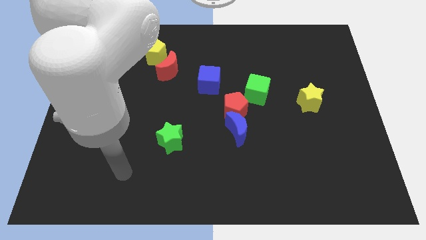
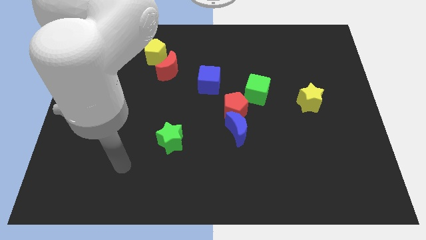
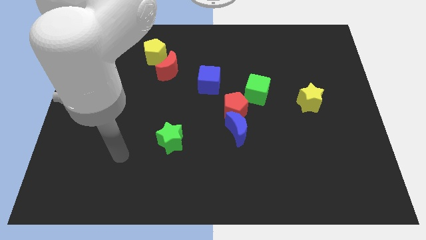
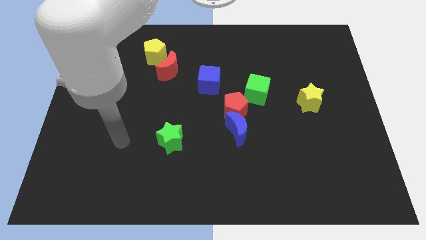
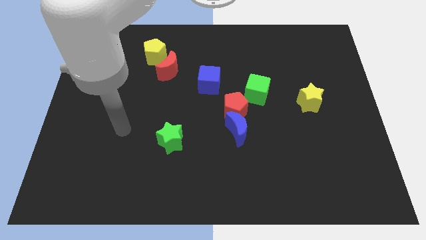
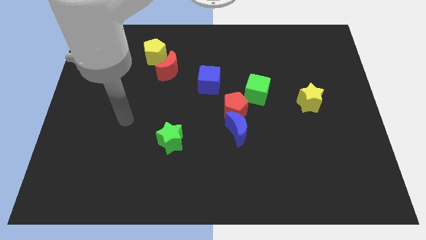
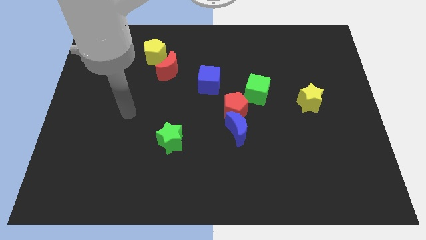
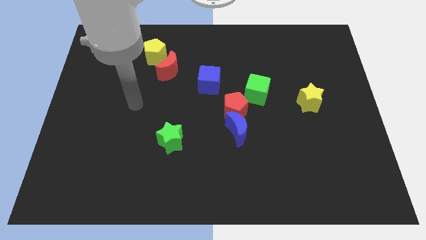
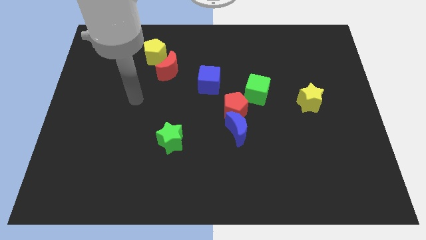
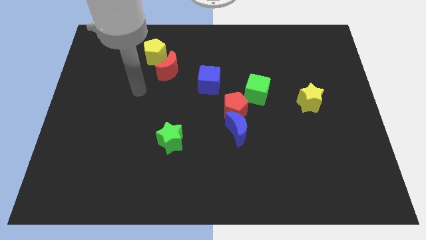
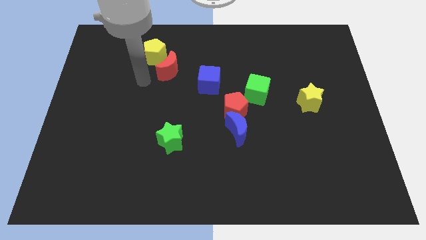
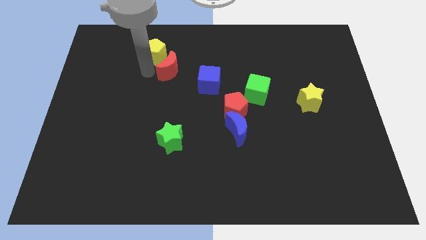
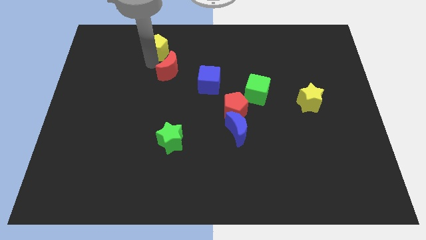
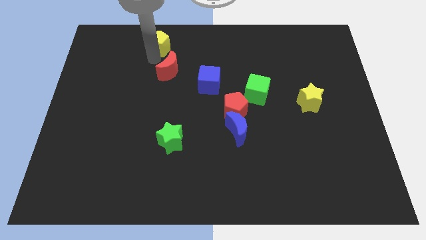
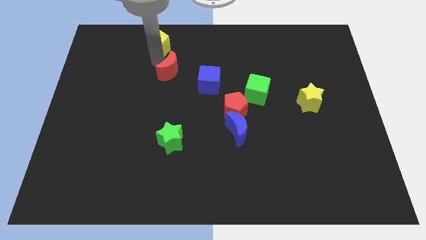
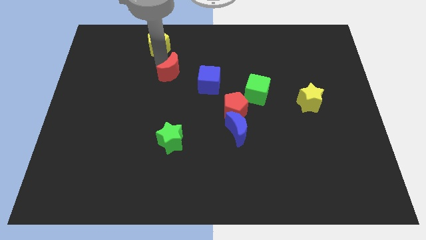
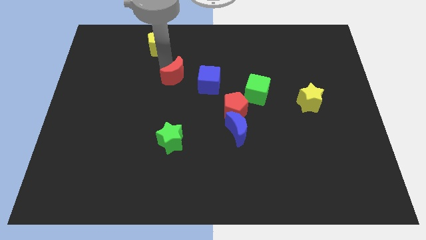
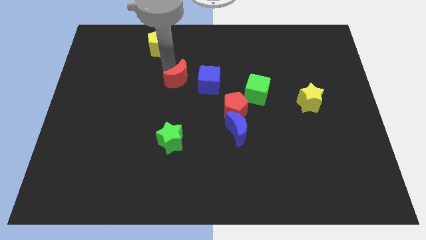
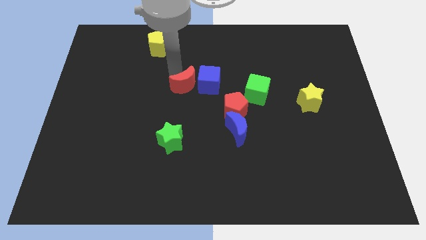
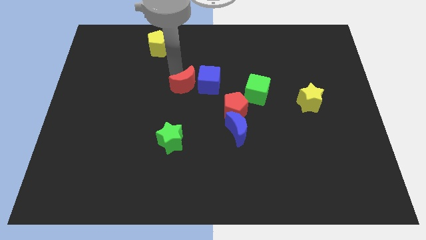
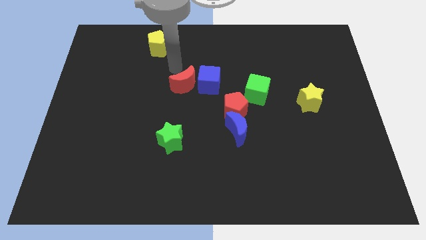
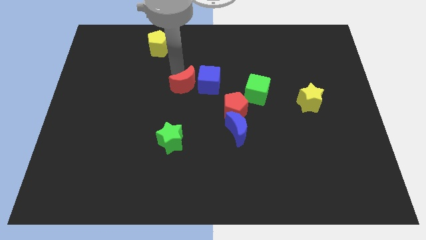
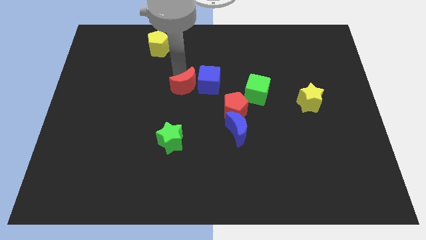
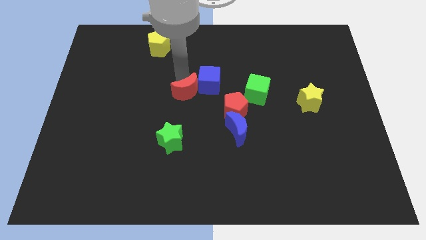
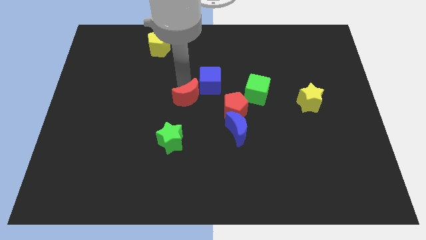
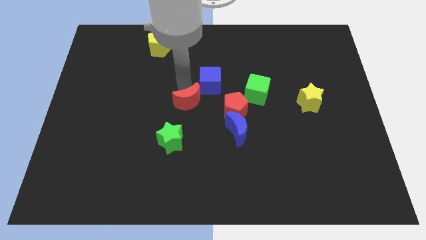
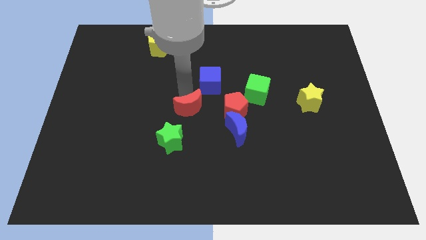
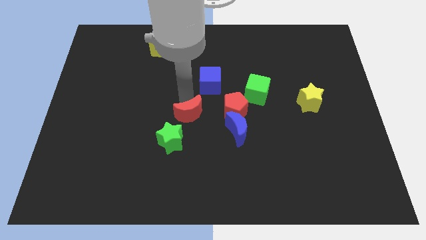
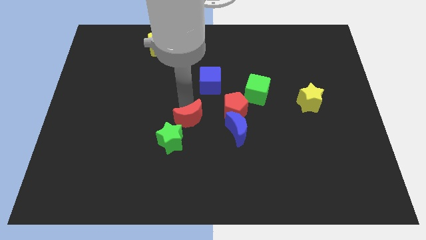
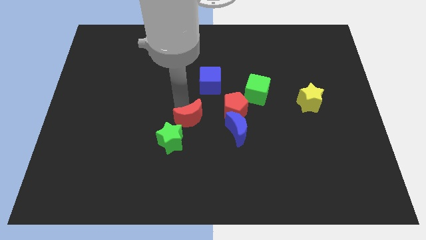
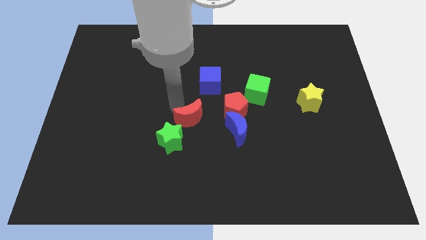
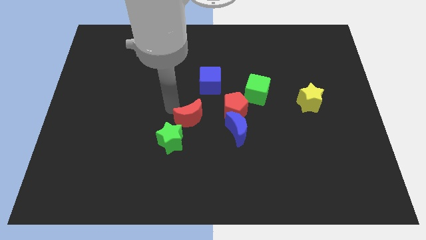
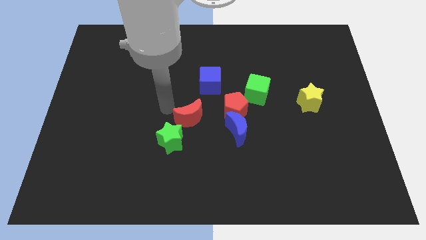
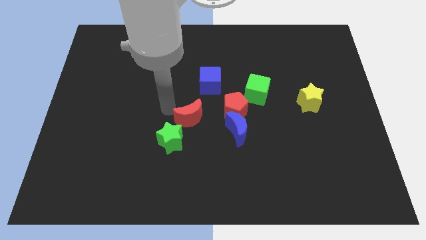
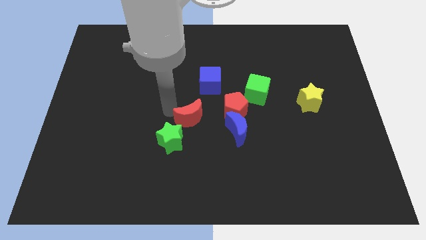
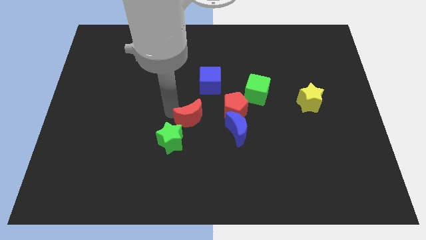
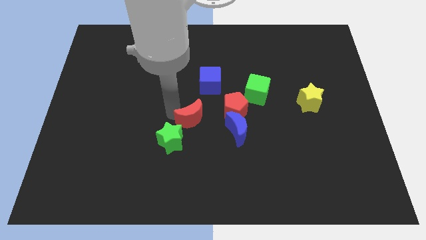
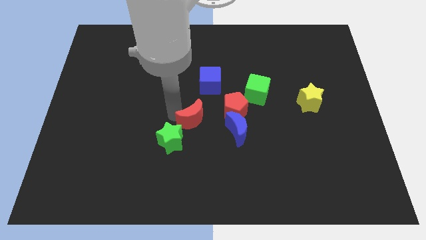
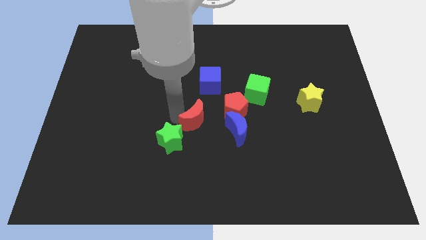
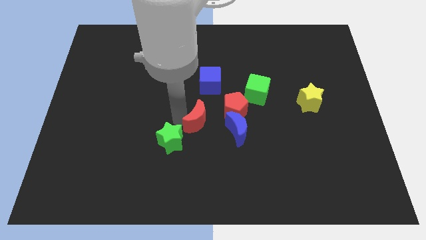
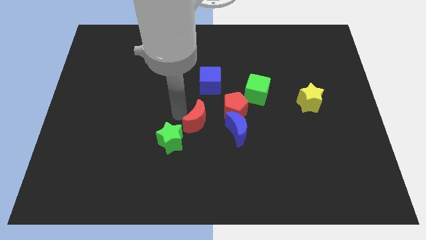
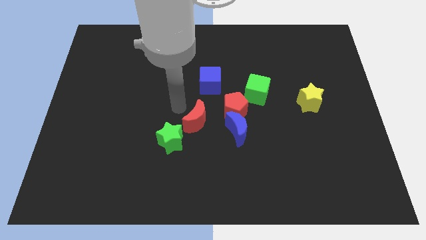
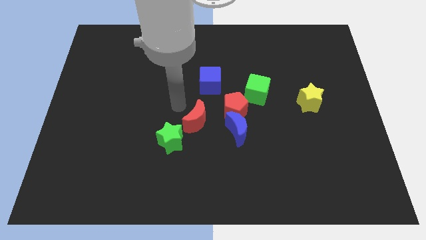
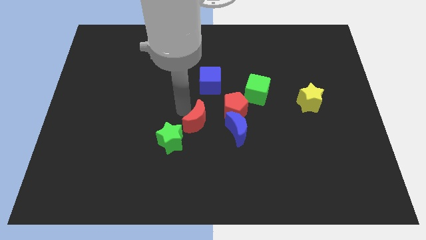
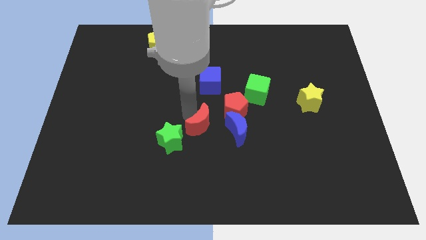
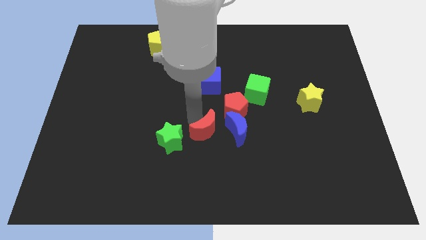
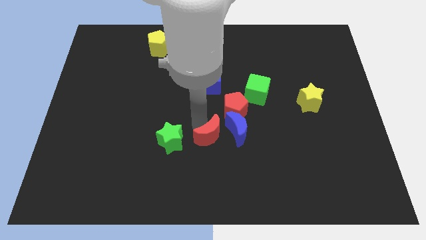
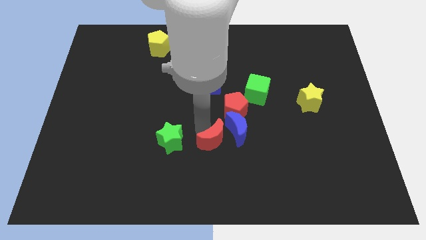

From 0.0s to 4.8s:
push the red moon downwards and right diagonally

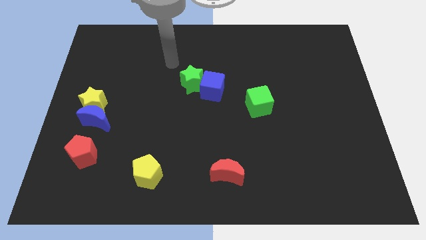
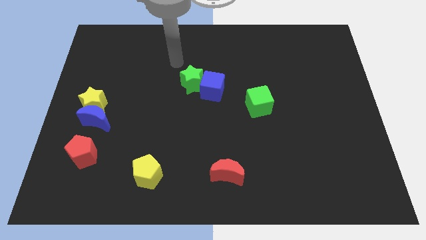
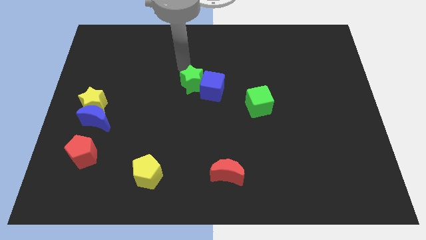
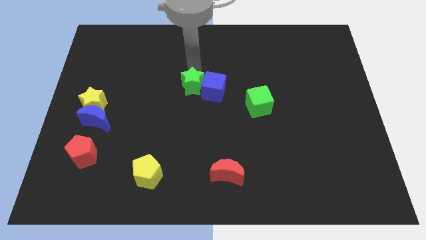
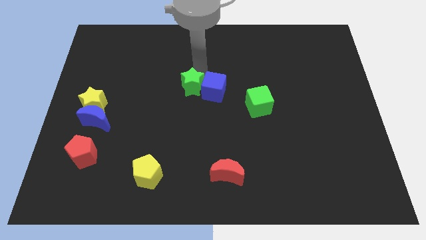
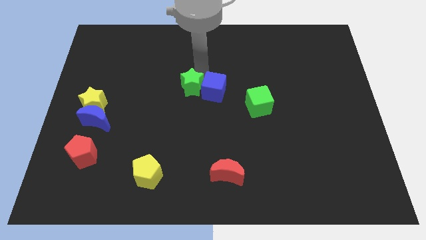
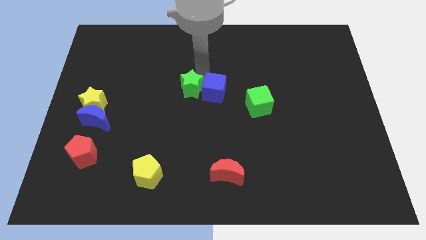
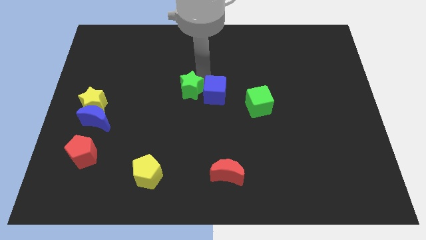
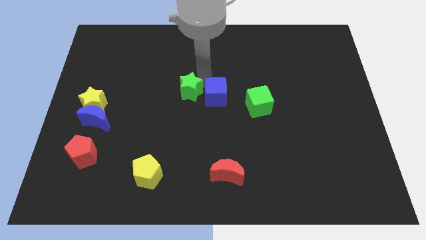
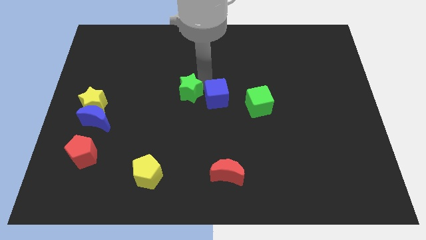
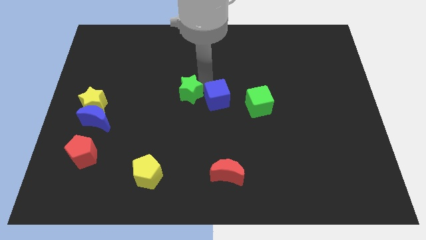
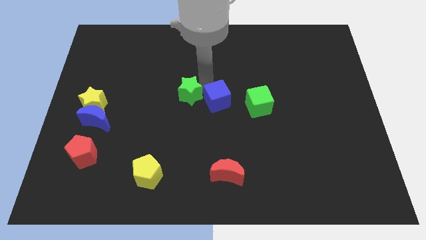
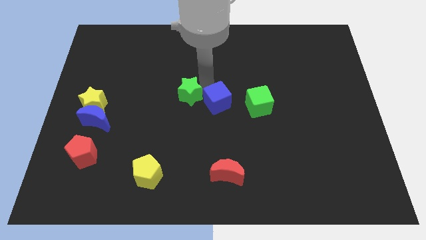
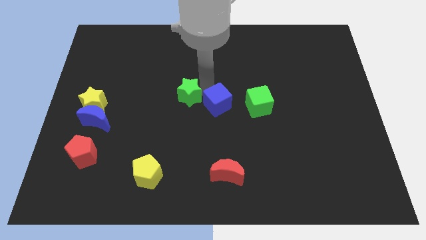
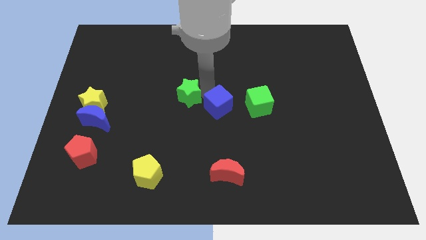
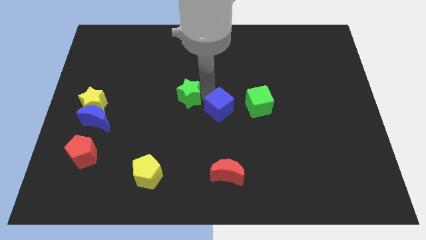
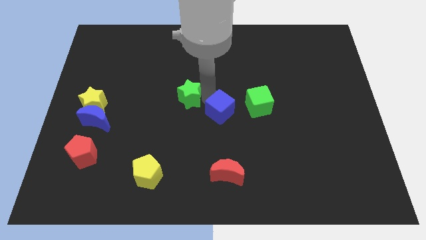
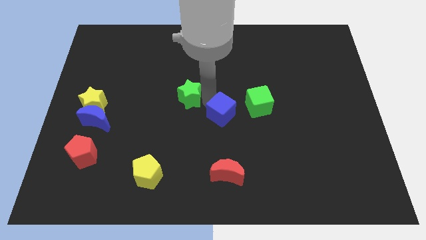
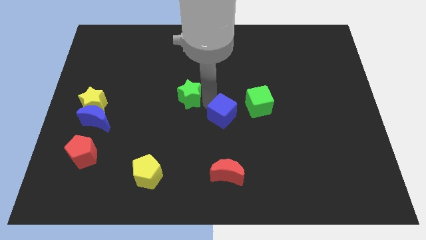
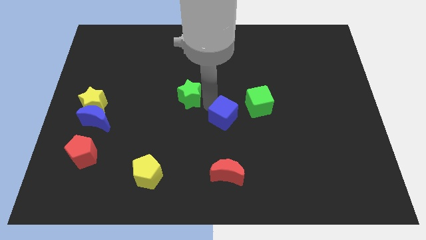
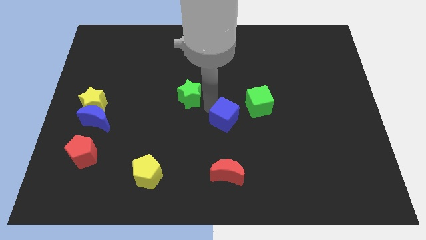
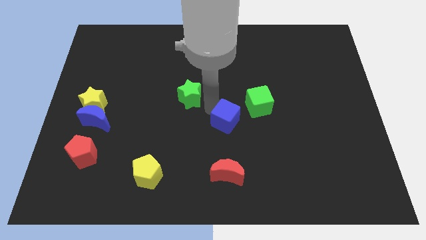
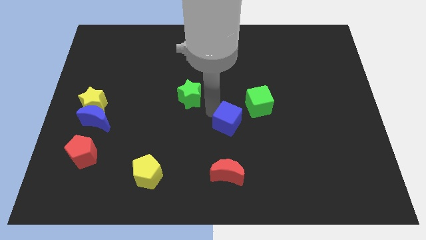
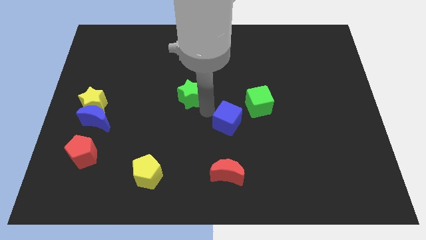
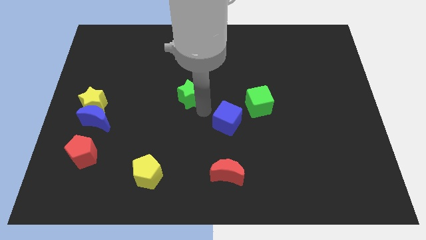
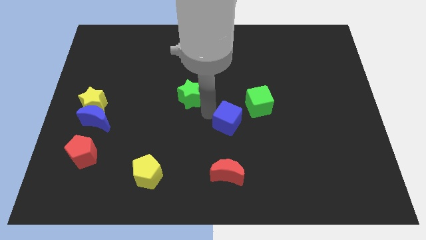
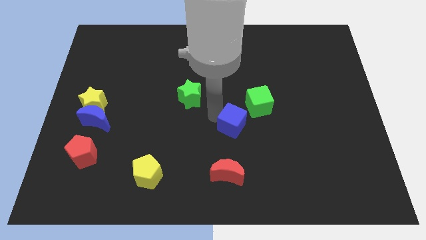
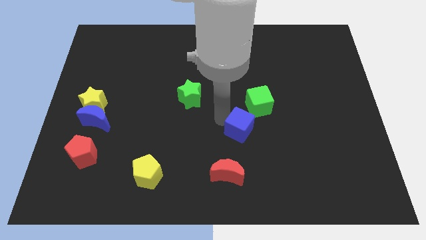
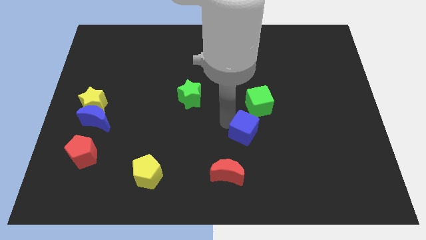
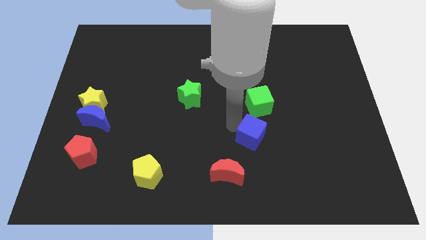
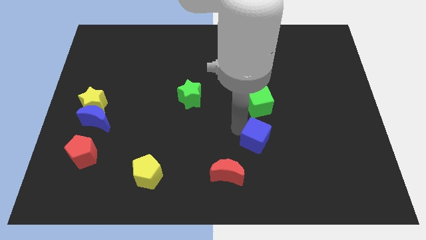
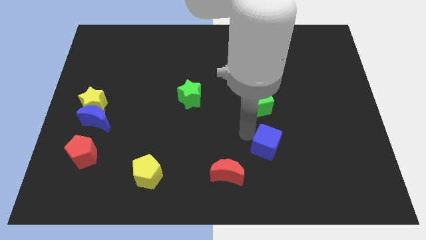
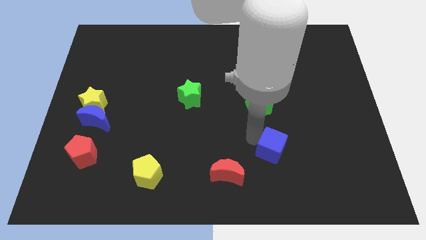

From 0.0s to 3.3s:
slide the blue cube diagonally downwards and right
